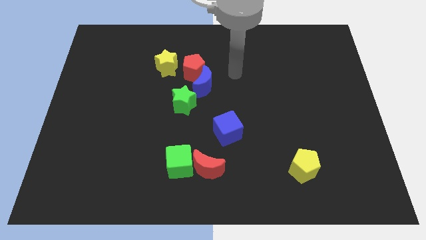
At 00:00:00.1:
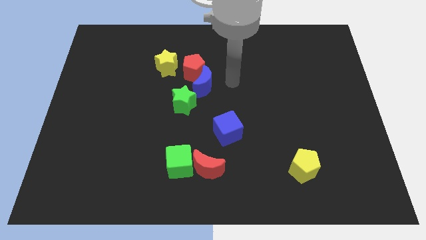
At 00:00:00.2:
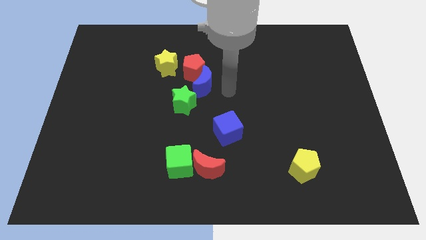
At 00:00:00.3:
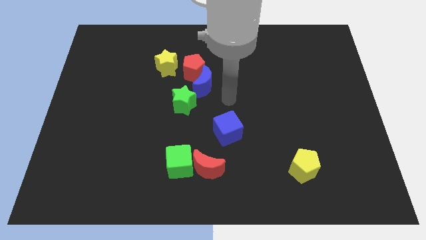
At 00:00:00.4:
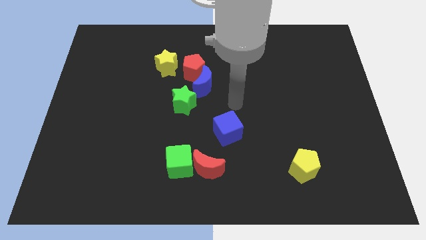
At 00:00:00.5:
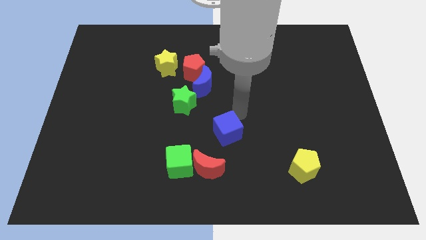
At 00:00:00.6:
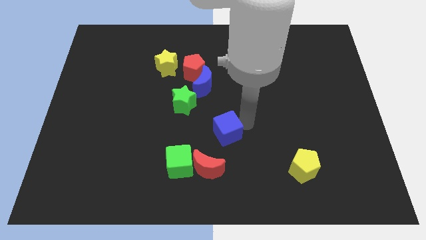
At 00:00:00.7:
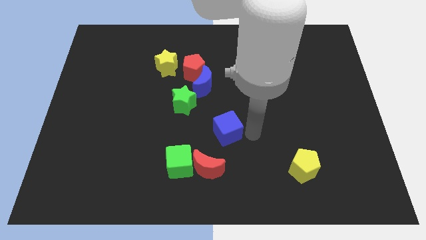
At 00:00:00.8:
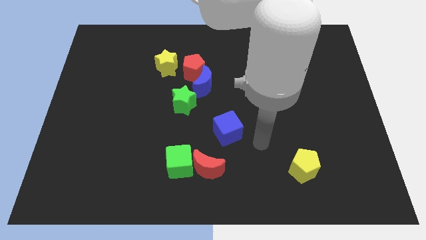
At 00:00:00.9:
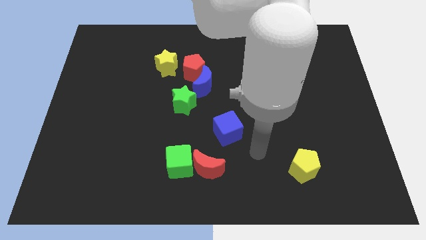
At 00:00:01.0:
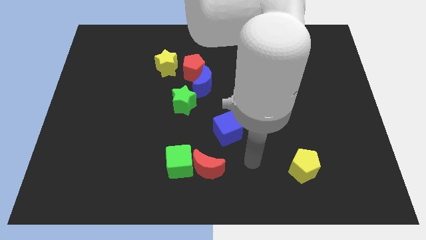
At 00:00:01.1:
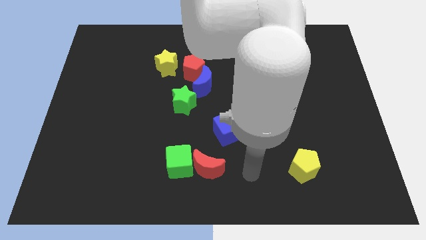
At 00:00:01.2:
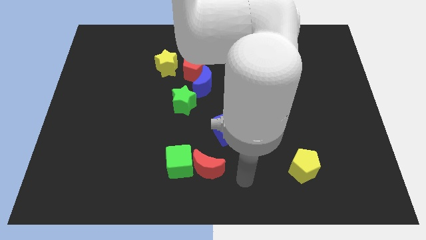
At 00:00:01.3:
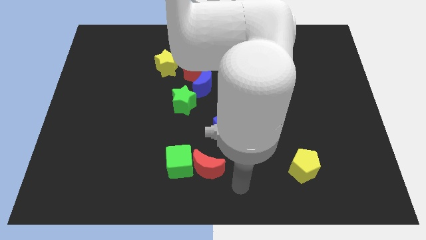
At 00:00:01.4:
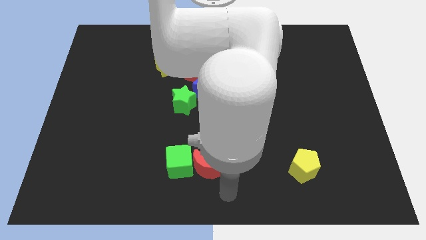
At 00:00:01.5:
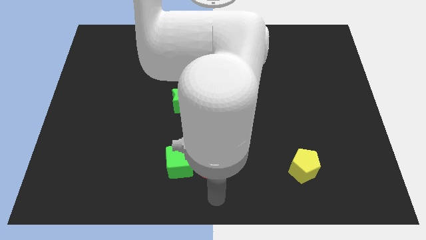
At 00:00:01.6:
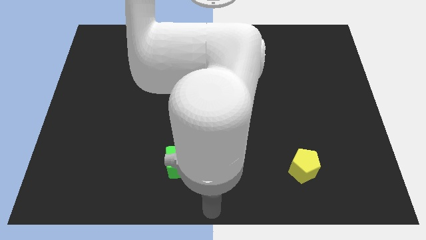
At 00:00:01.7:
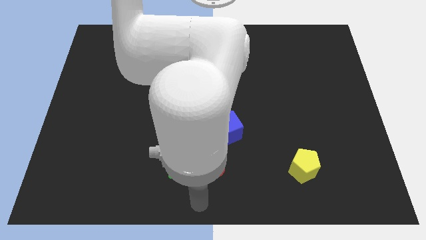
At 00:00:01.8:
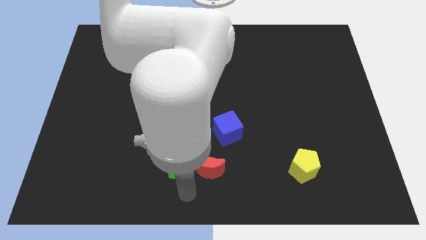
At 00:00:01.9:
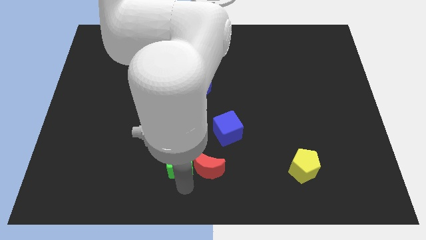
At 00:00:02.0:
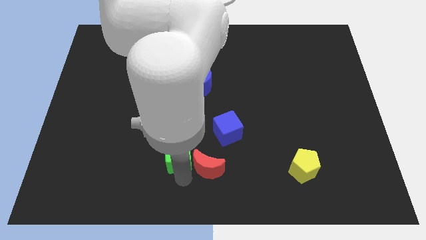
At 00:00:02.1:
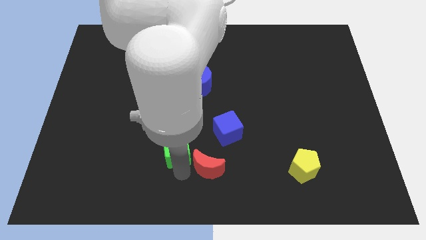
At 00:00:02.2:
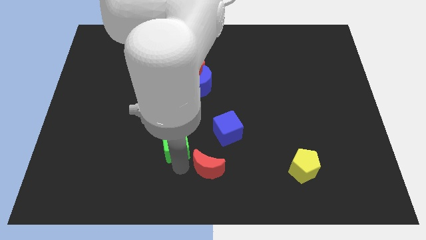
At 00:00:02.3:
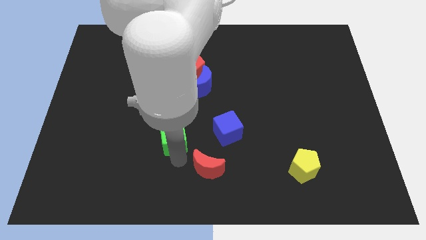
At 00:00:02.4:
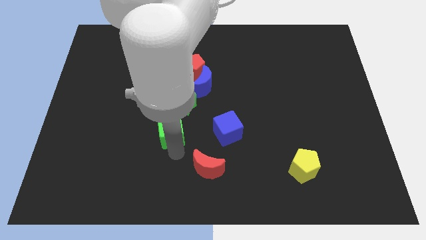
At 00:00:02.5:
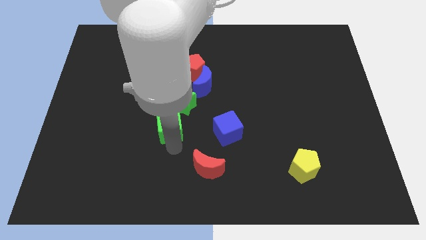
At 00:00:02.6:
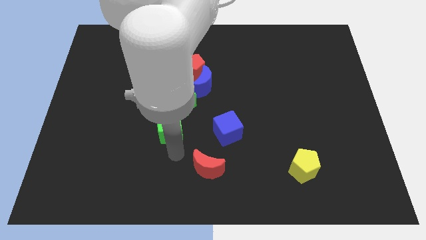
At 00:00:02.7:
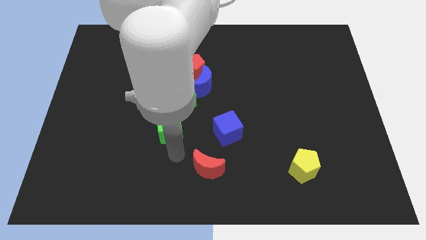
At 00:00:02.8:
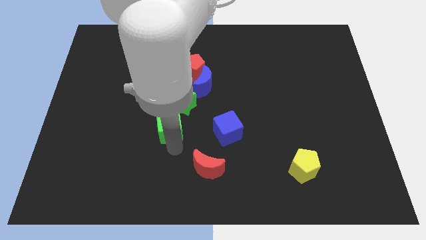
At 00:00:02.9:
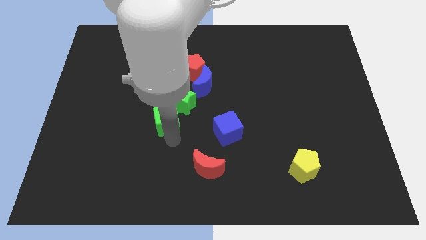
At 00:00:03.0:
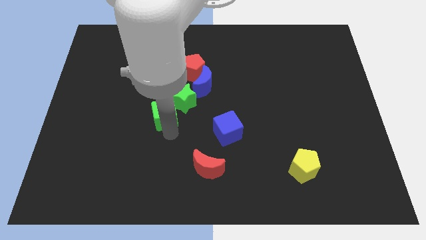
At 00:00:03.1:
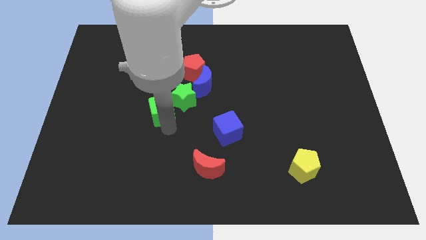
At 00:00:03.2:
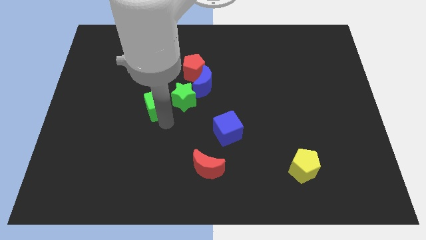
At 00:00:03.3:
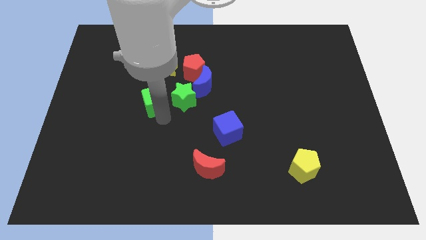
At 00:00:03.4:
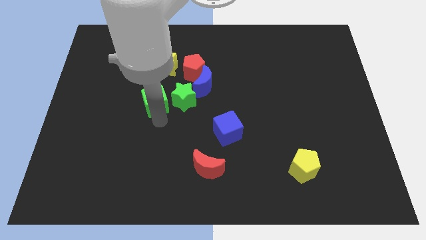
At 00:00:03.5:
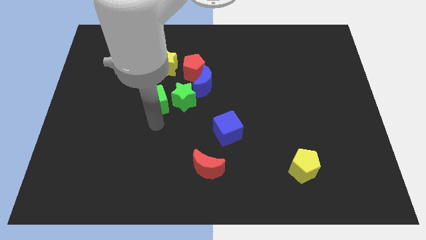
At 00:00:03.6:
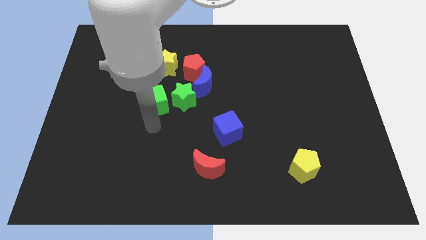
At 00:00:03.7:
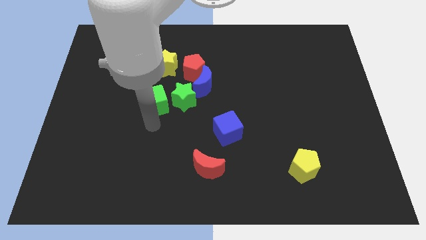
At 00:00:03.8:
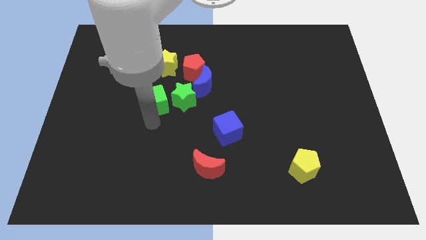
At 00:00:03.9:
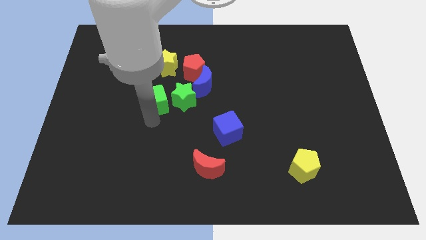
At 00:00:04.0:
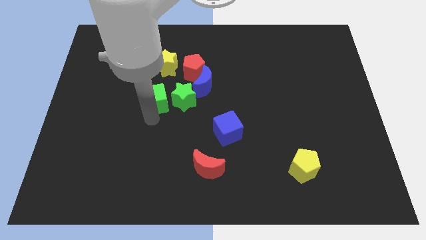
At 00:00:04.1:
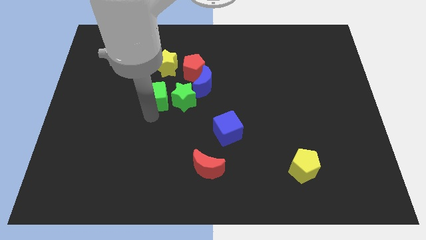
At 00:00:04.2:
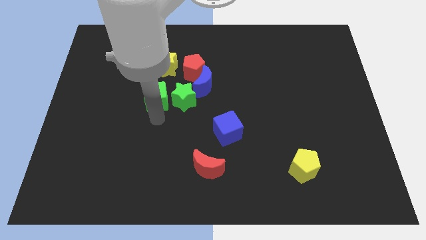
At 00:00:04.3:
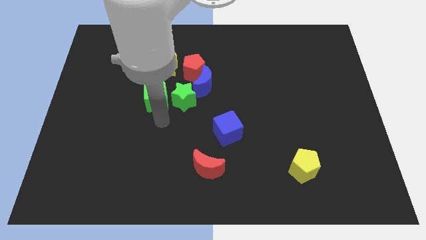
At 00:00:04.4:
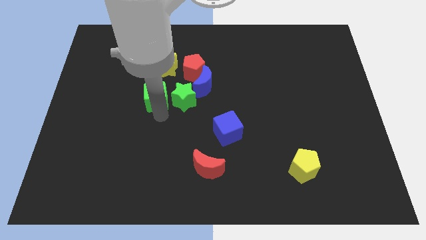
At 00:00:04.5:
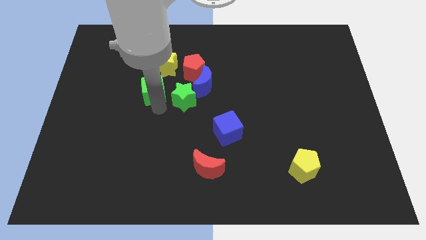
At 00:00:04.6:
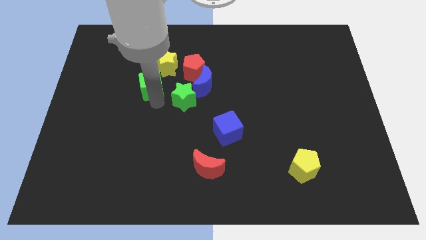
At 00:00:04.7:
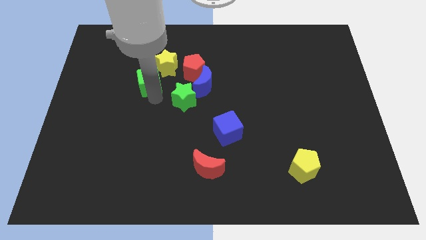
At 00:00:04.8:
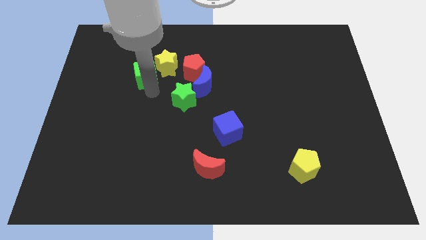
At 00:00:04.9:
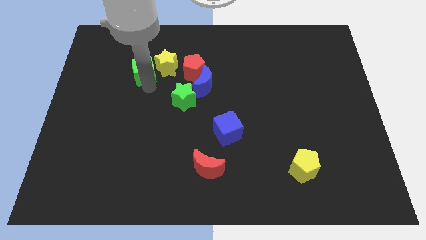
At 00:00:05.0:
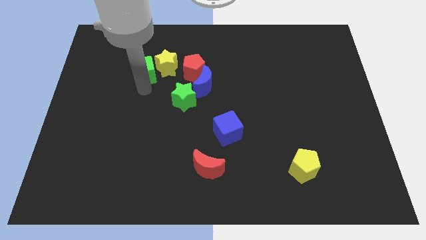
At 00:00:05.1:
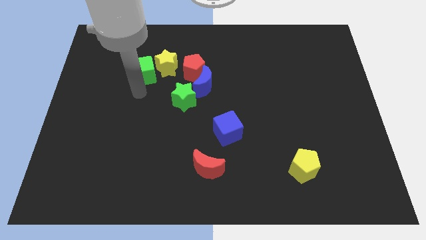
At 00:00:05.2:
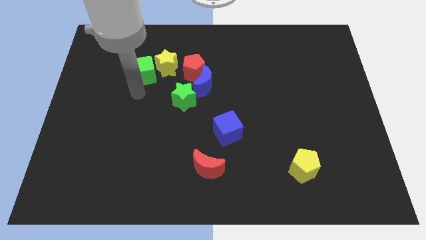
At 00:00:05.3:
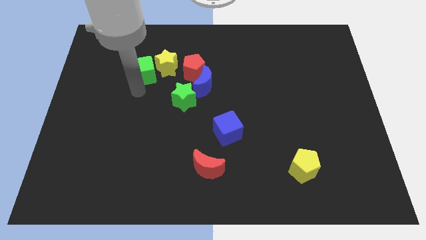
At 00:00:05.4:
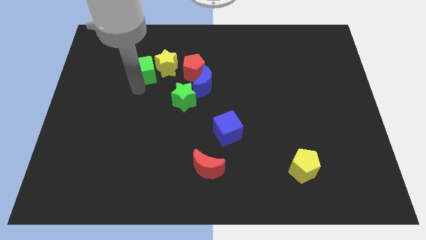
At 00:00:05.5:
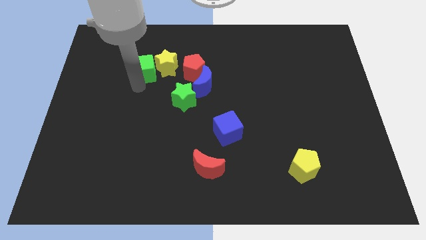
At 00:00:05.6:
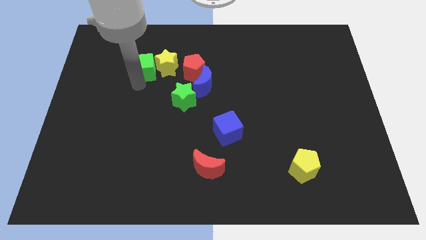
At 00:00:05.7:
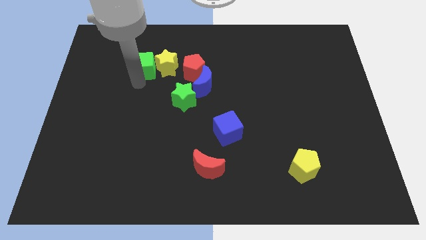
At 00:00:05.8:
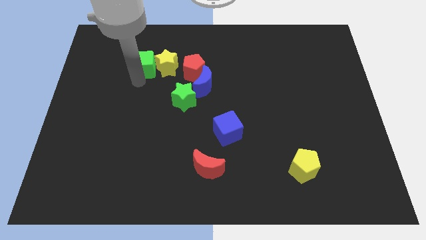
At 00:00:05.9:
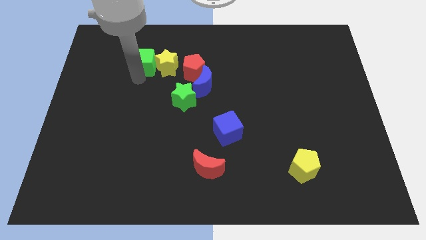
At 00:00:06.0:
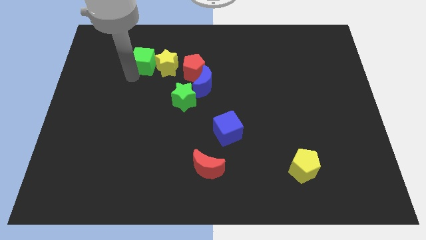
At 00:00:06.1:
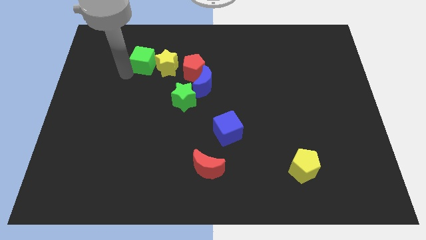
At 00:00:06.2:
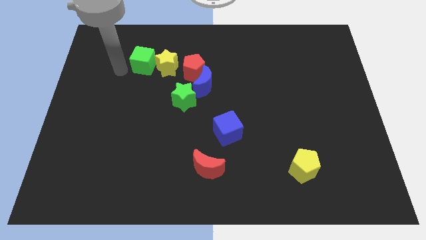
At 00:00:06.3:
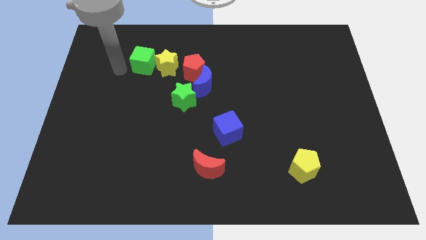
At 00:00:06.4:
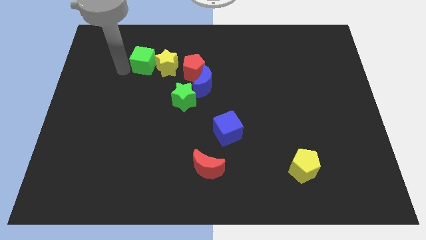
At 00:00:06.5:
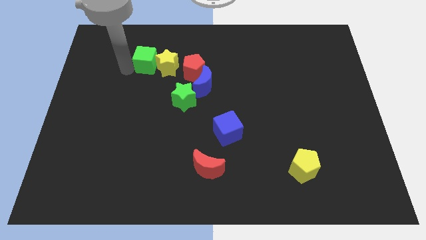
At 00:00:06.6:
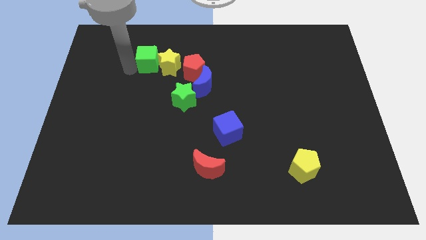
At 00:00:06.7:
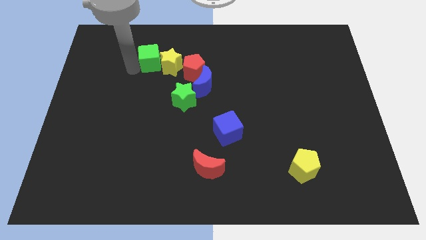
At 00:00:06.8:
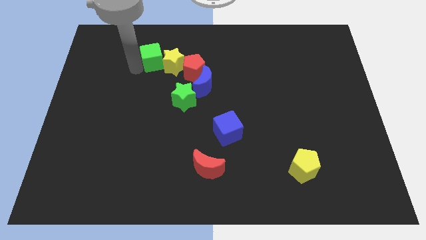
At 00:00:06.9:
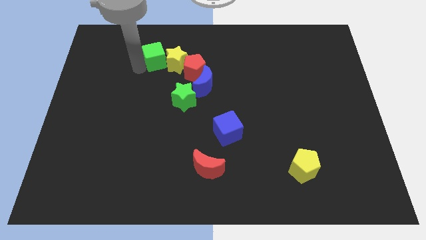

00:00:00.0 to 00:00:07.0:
slide the green cube to the top left side of the red pentagon
